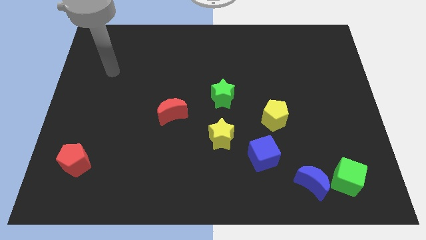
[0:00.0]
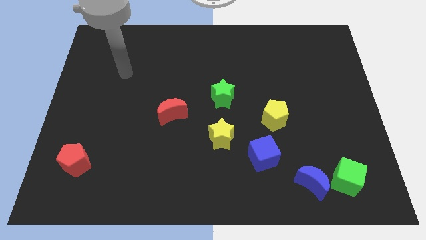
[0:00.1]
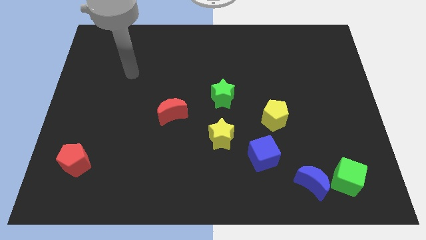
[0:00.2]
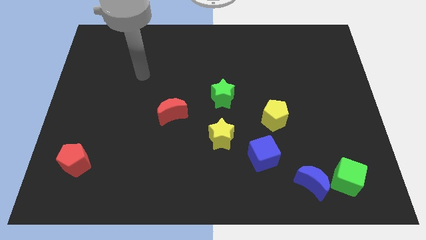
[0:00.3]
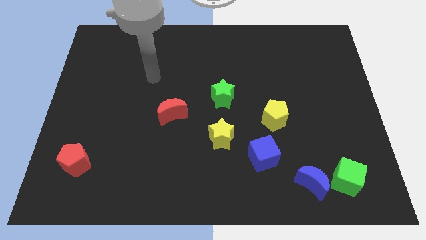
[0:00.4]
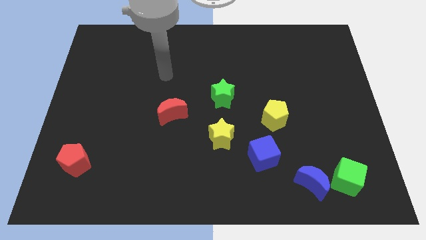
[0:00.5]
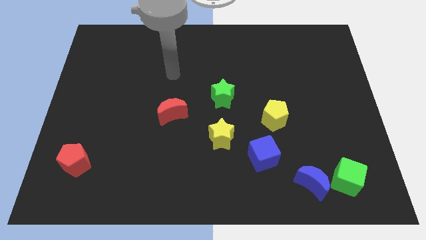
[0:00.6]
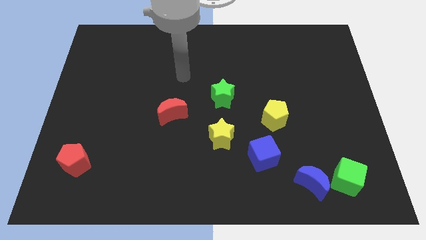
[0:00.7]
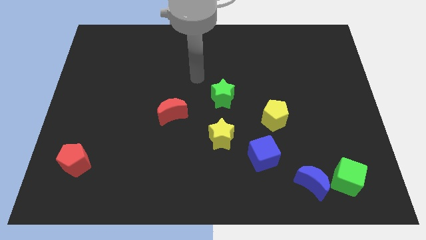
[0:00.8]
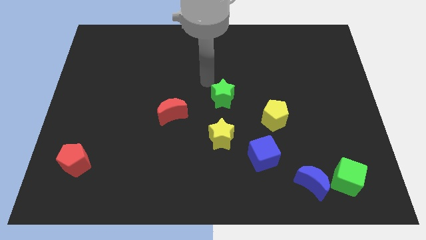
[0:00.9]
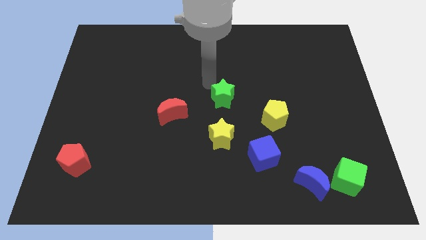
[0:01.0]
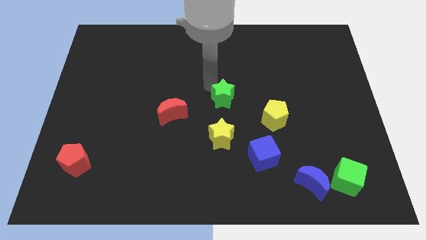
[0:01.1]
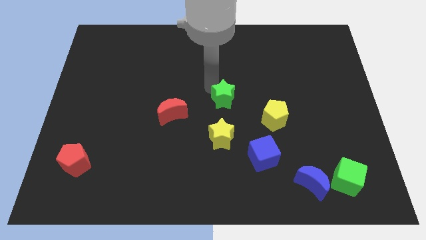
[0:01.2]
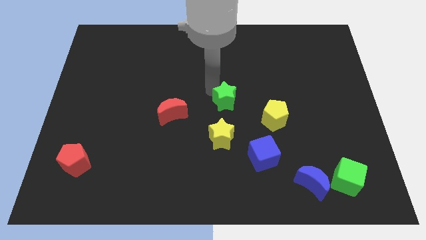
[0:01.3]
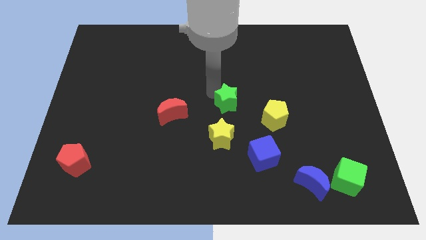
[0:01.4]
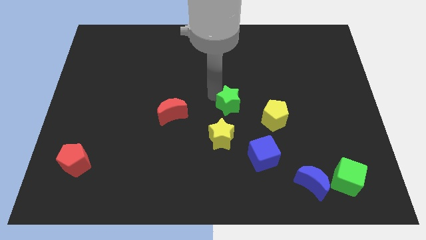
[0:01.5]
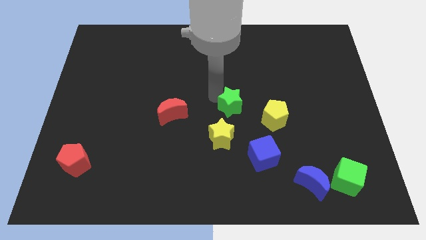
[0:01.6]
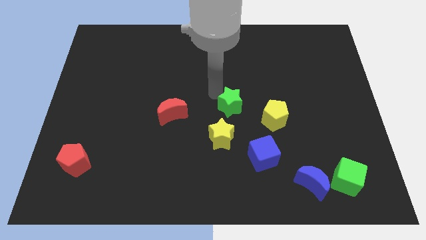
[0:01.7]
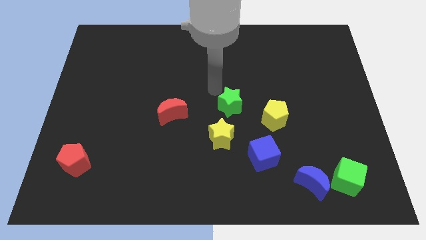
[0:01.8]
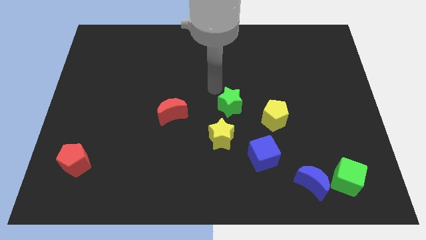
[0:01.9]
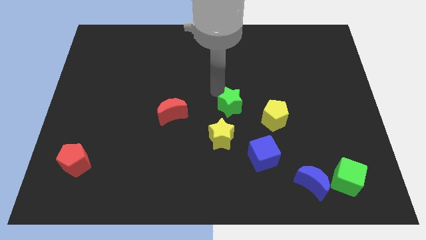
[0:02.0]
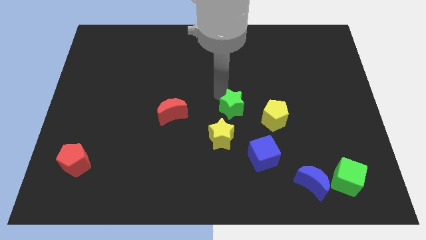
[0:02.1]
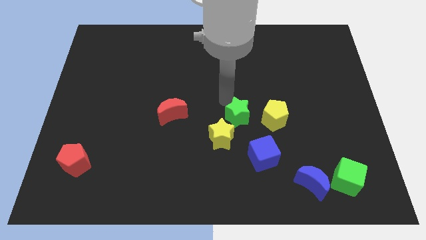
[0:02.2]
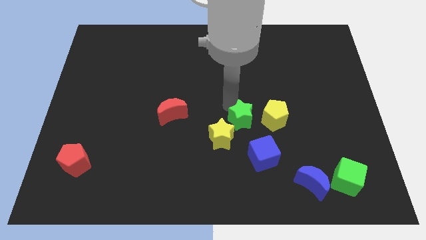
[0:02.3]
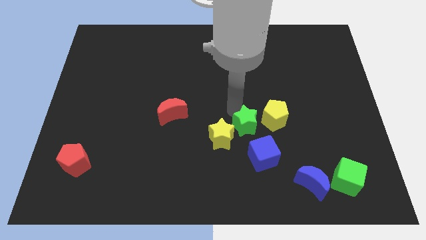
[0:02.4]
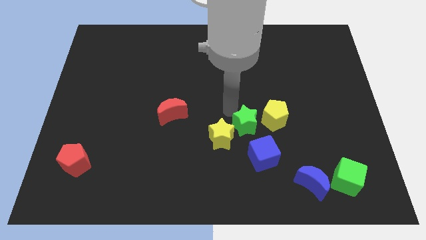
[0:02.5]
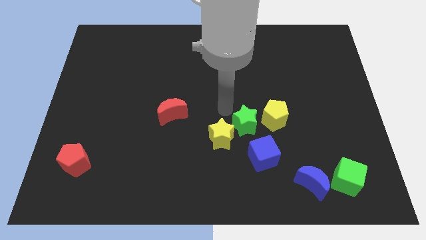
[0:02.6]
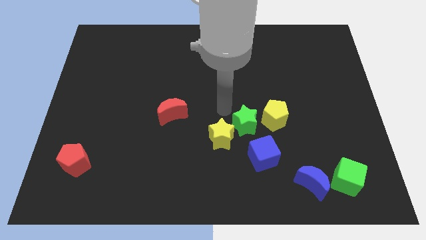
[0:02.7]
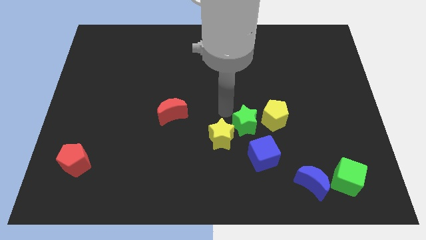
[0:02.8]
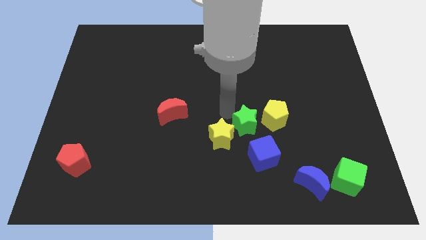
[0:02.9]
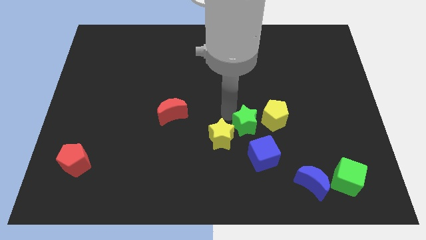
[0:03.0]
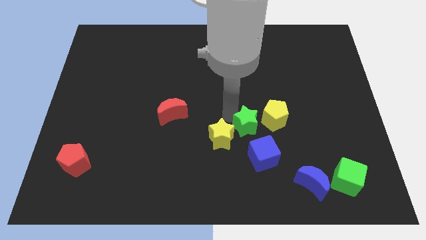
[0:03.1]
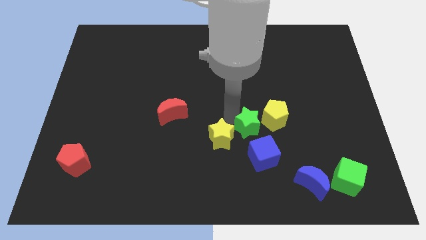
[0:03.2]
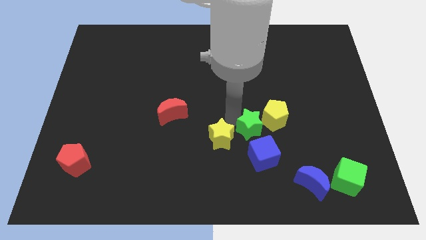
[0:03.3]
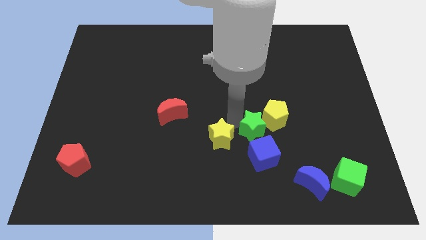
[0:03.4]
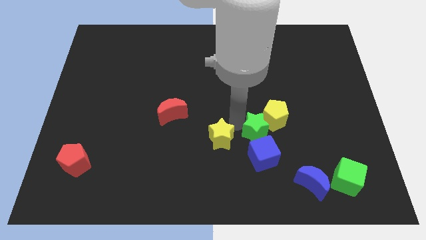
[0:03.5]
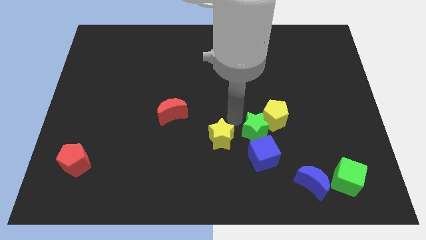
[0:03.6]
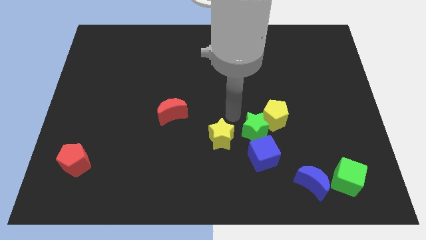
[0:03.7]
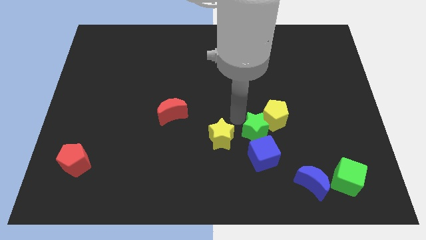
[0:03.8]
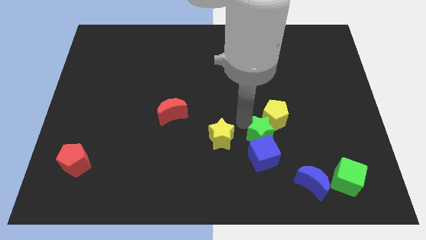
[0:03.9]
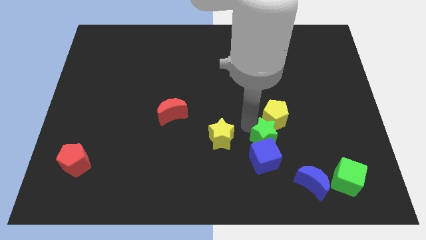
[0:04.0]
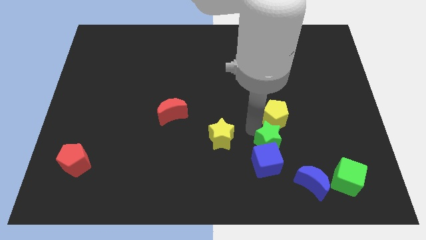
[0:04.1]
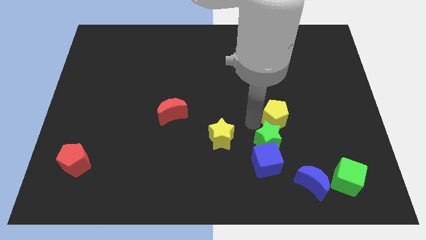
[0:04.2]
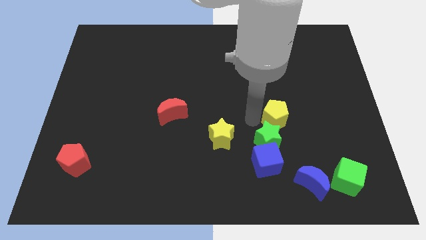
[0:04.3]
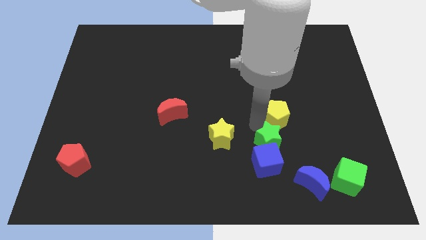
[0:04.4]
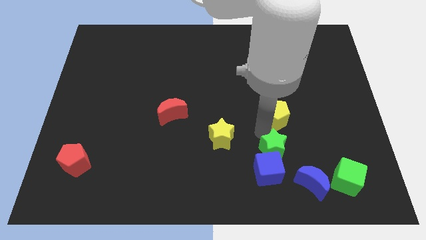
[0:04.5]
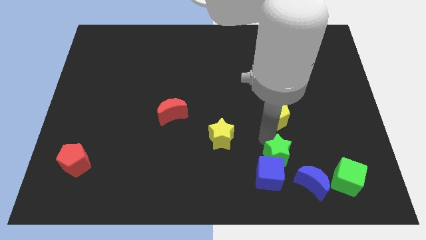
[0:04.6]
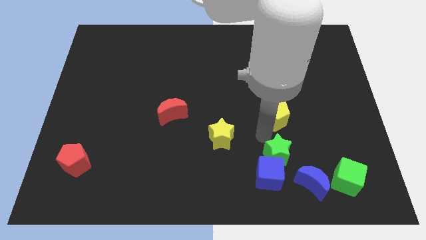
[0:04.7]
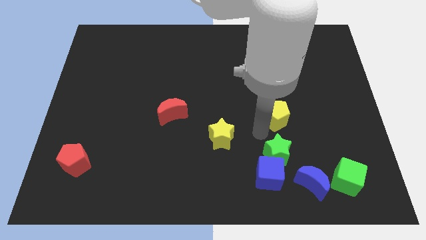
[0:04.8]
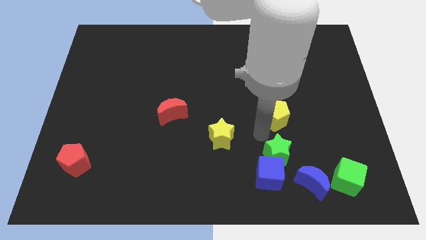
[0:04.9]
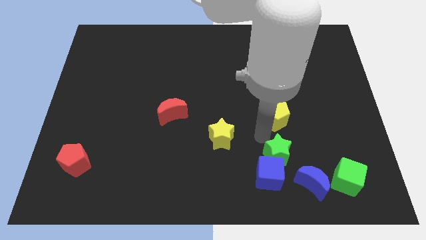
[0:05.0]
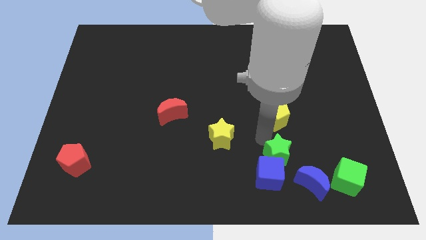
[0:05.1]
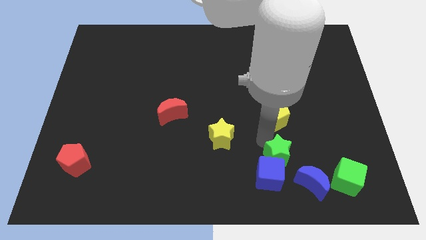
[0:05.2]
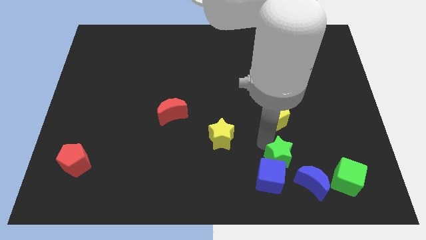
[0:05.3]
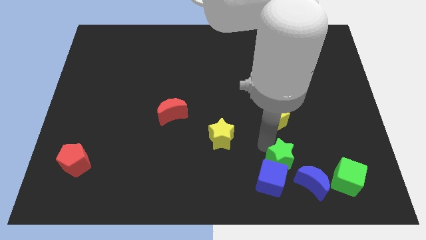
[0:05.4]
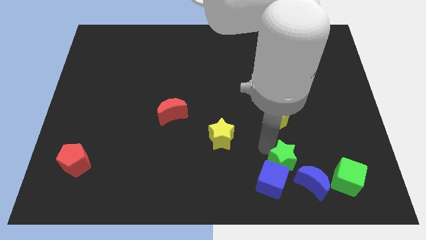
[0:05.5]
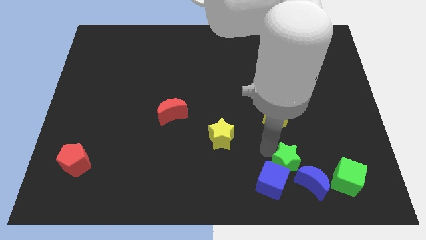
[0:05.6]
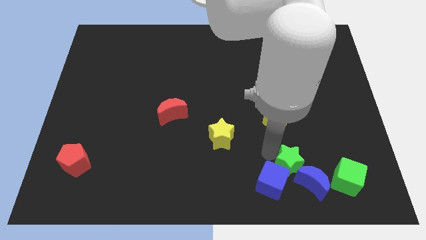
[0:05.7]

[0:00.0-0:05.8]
slide the green star towards the blue moon

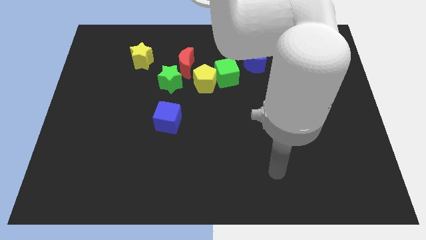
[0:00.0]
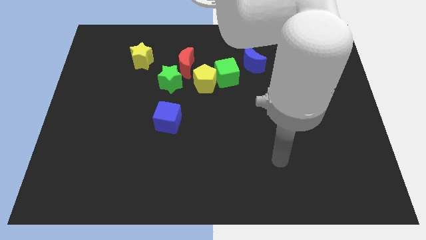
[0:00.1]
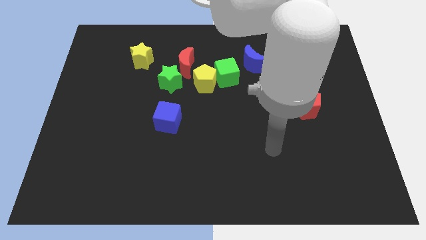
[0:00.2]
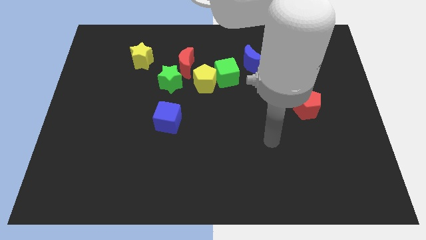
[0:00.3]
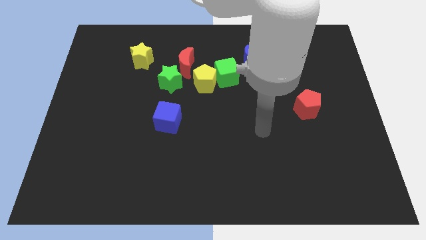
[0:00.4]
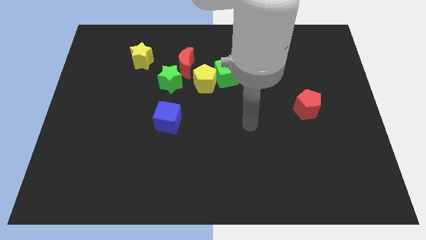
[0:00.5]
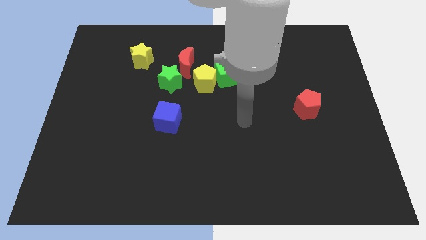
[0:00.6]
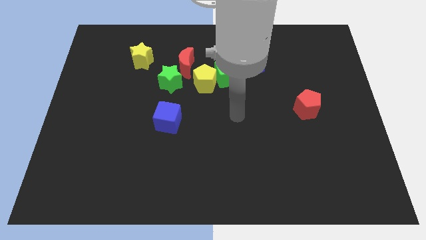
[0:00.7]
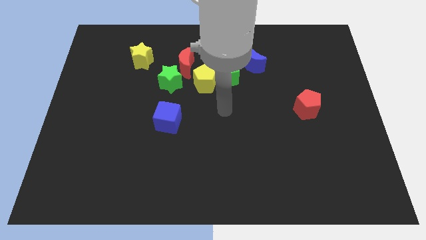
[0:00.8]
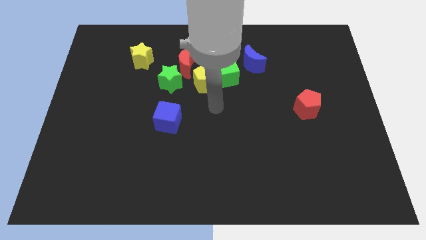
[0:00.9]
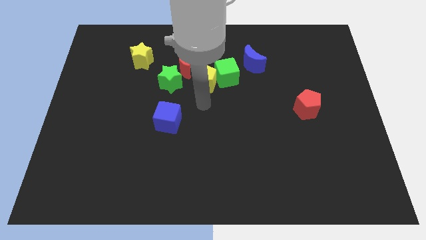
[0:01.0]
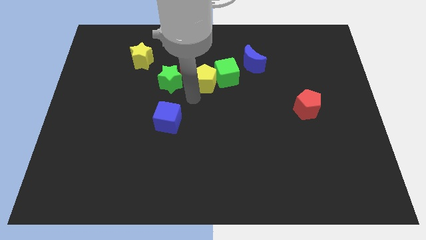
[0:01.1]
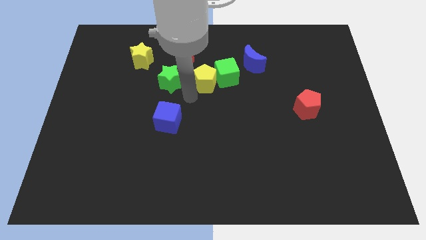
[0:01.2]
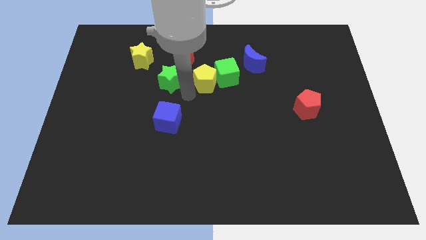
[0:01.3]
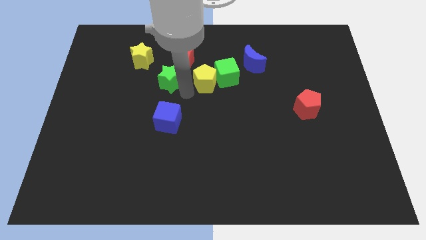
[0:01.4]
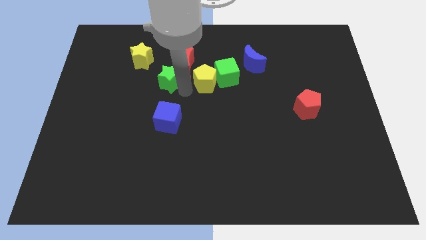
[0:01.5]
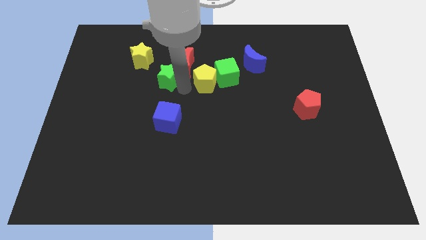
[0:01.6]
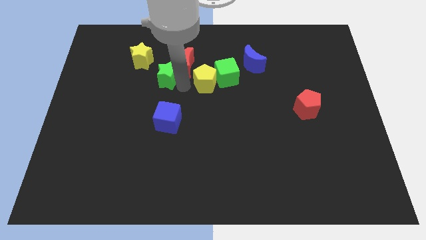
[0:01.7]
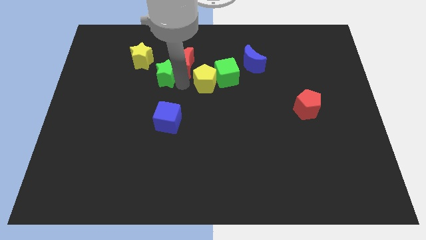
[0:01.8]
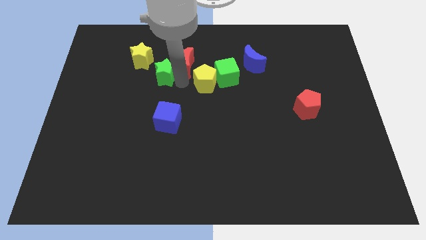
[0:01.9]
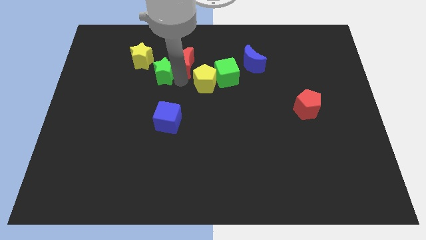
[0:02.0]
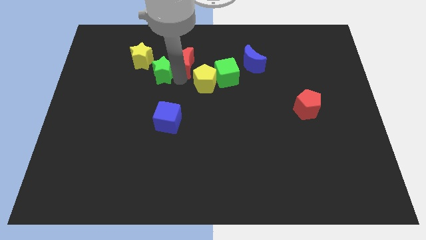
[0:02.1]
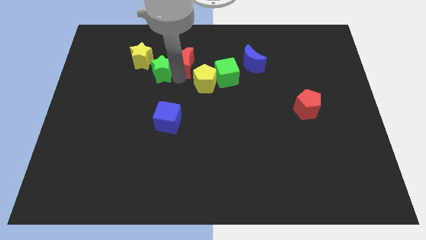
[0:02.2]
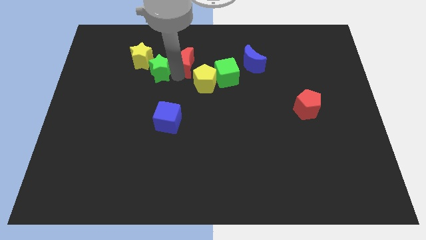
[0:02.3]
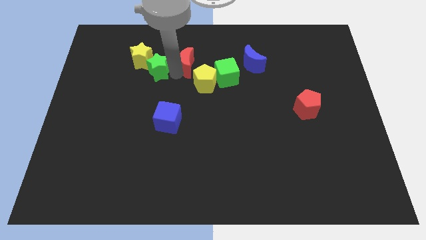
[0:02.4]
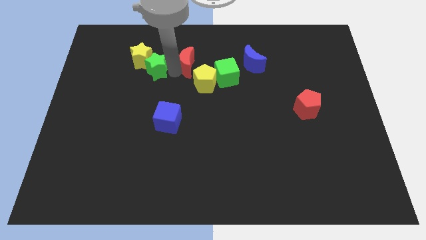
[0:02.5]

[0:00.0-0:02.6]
push the green star next to the yellow star
